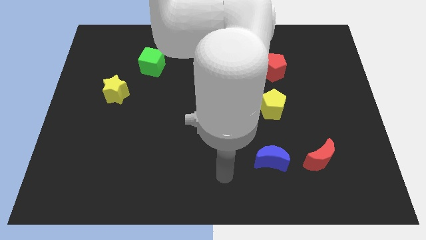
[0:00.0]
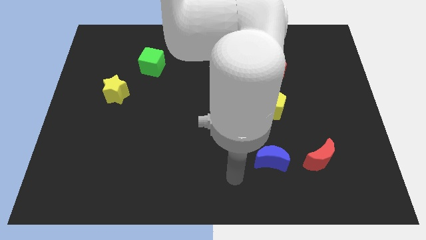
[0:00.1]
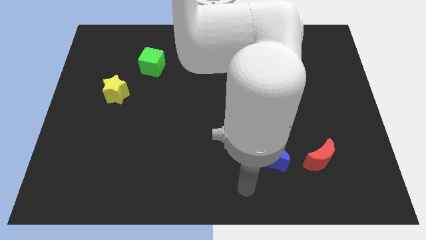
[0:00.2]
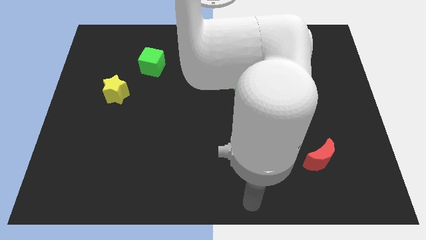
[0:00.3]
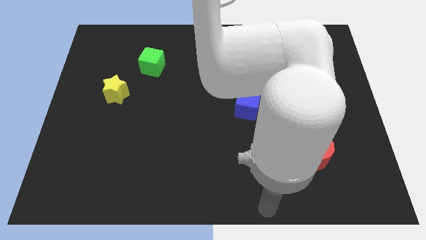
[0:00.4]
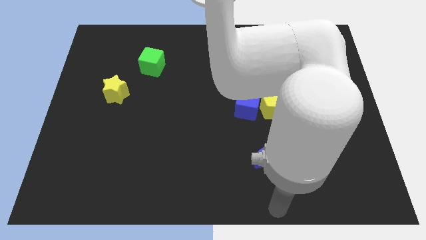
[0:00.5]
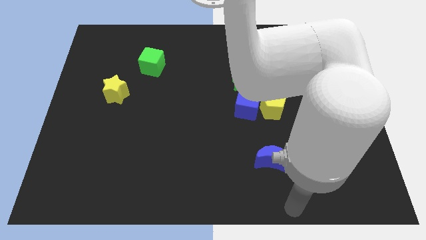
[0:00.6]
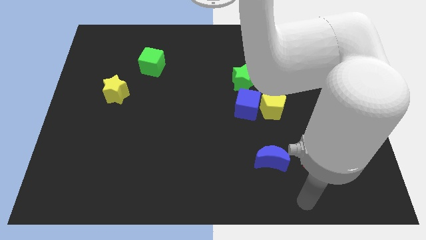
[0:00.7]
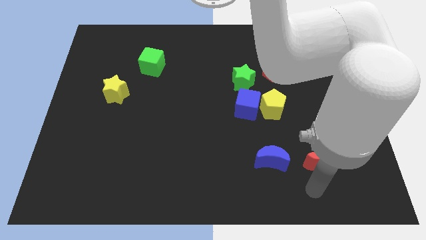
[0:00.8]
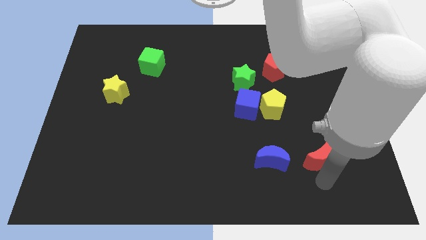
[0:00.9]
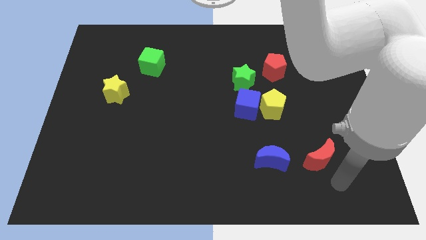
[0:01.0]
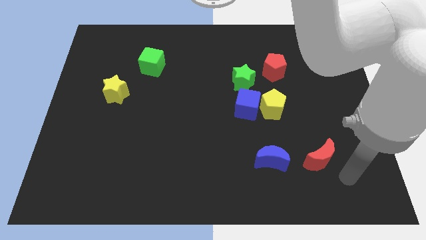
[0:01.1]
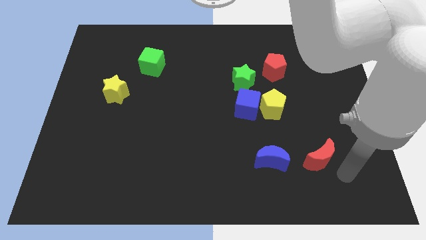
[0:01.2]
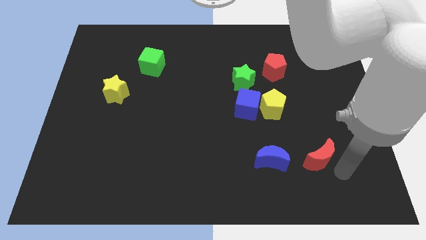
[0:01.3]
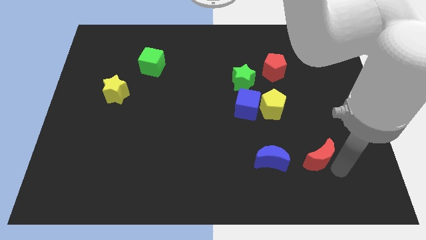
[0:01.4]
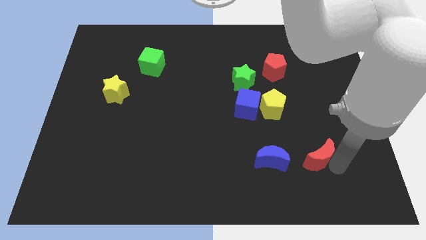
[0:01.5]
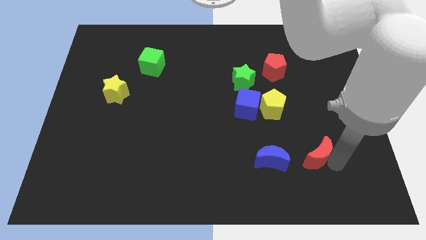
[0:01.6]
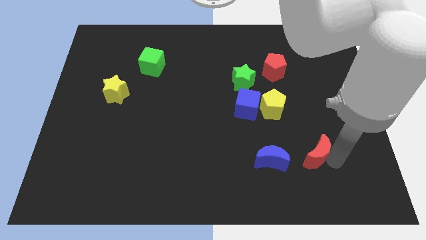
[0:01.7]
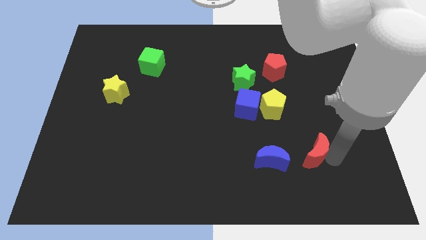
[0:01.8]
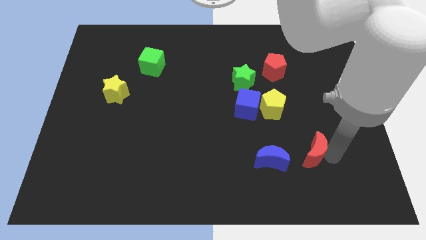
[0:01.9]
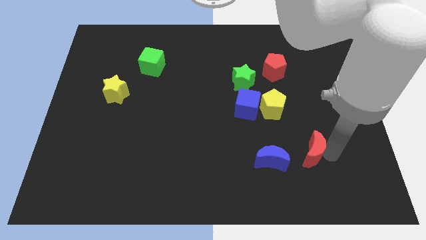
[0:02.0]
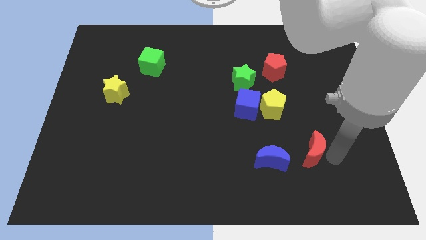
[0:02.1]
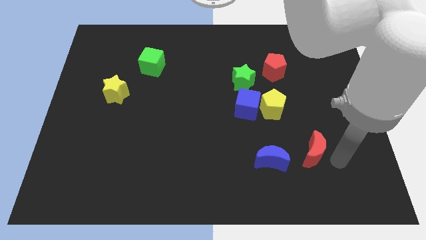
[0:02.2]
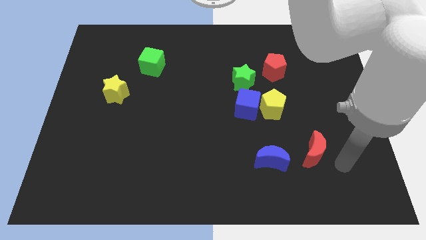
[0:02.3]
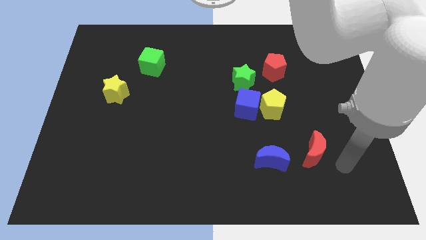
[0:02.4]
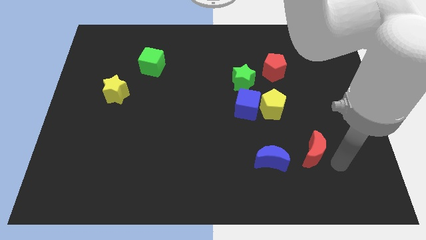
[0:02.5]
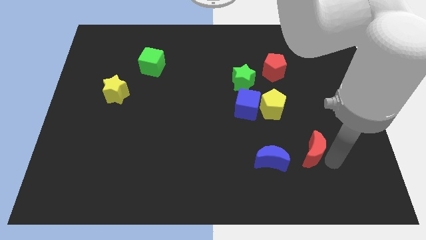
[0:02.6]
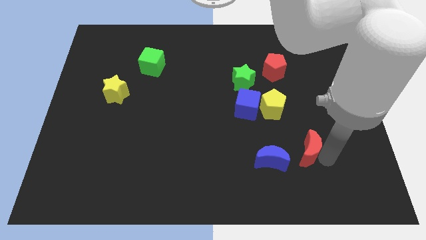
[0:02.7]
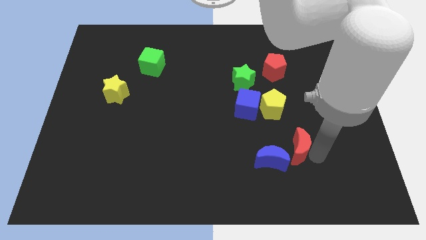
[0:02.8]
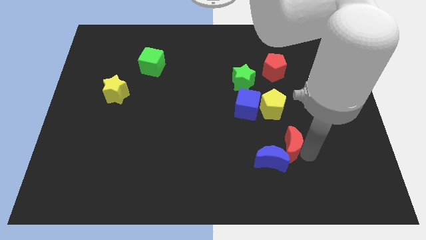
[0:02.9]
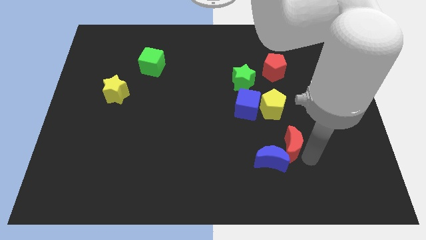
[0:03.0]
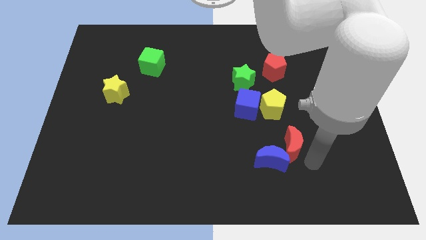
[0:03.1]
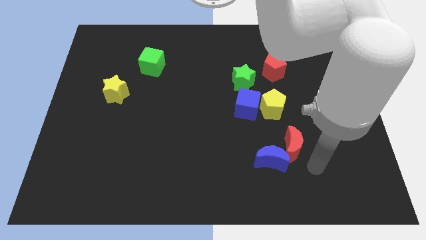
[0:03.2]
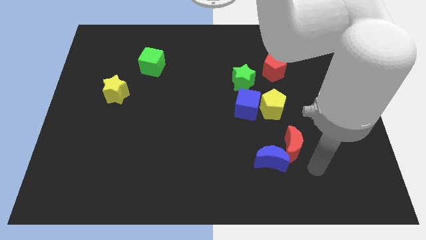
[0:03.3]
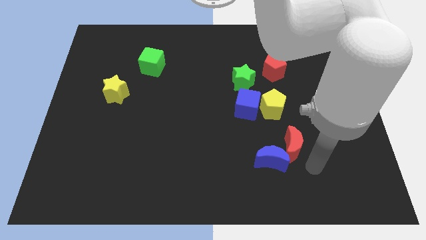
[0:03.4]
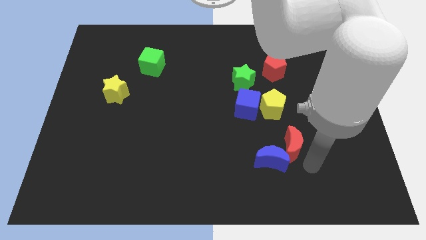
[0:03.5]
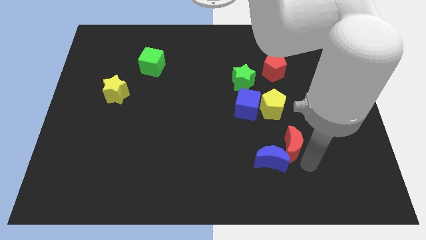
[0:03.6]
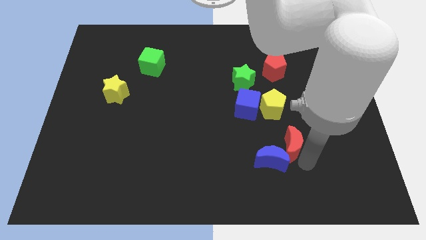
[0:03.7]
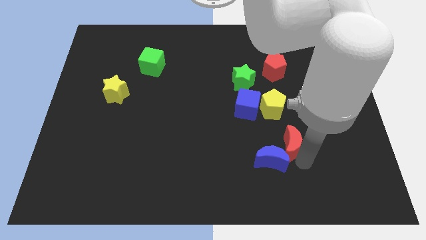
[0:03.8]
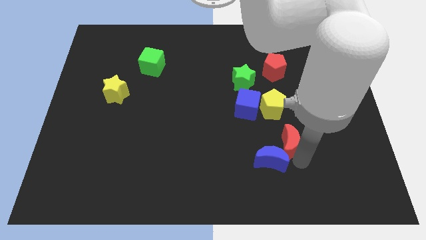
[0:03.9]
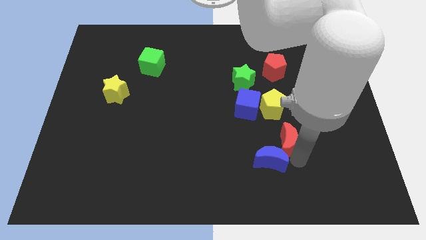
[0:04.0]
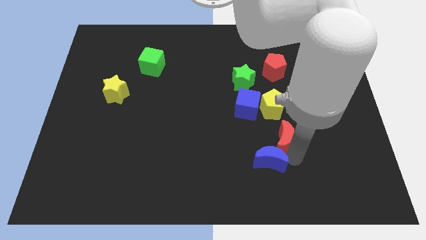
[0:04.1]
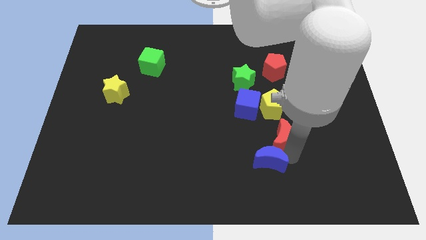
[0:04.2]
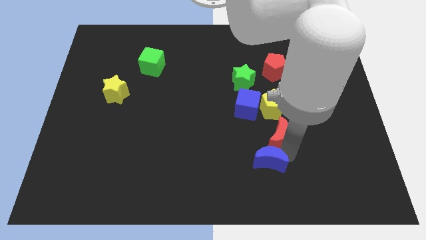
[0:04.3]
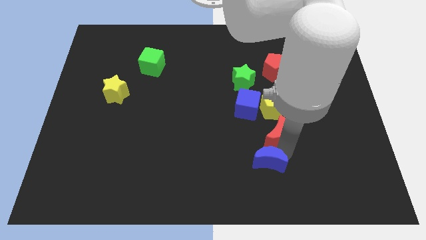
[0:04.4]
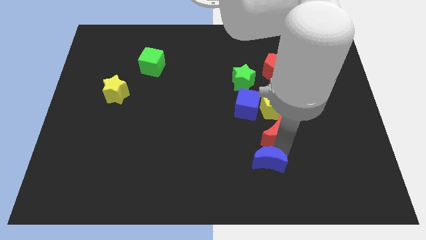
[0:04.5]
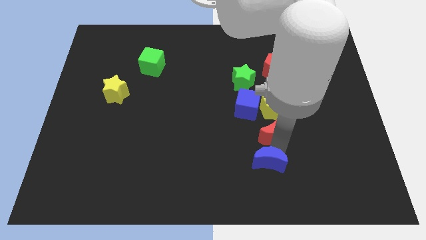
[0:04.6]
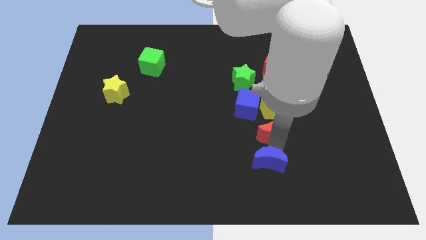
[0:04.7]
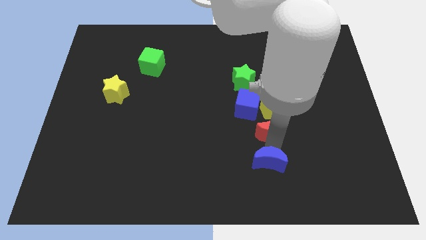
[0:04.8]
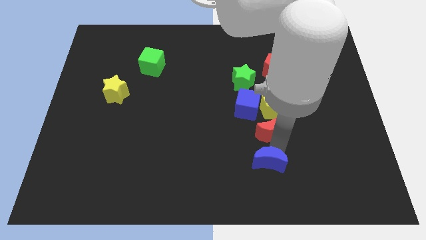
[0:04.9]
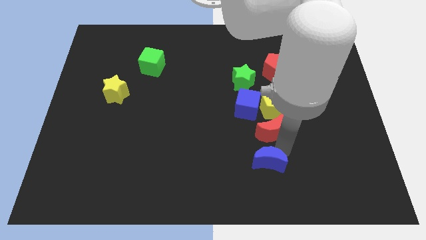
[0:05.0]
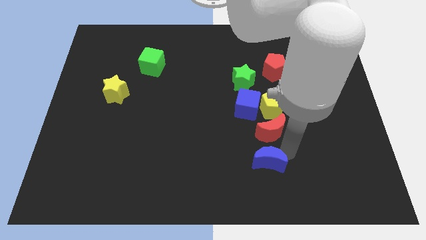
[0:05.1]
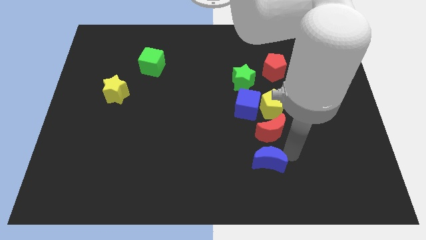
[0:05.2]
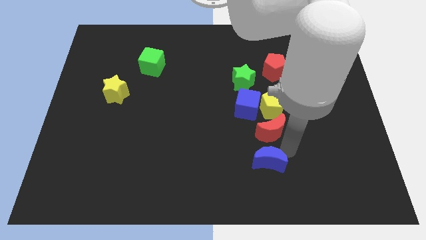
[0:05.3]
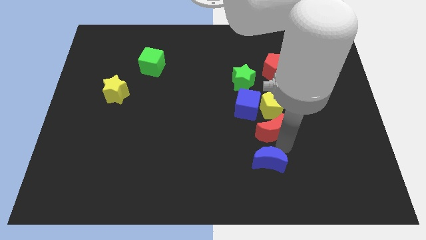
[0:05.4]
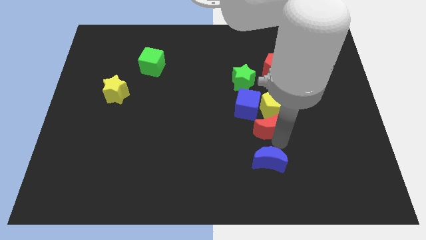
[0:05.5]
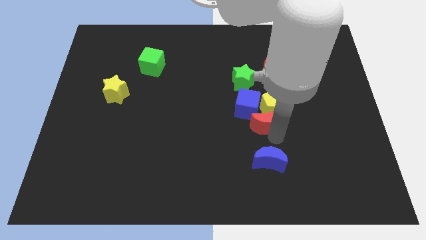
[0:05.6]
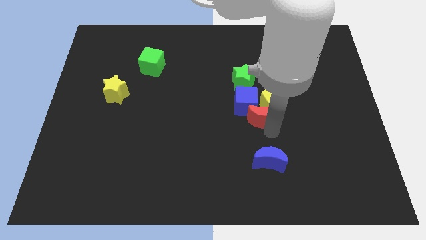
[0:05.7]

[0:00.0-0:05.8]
push the red moon close to the blue cube

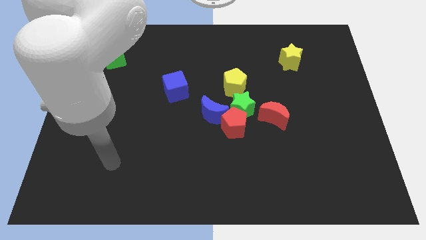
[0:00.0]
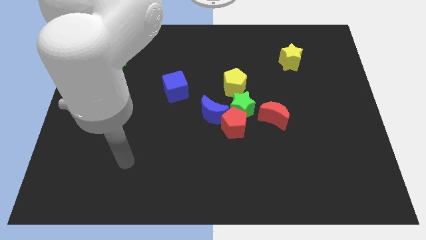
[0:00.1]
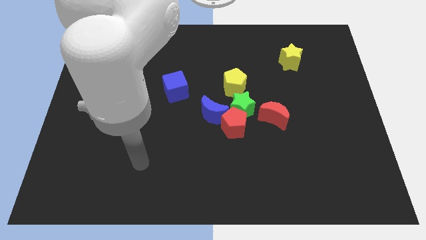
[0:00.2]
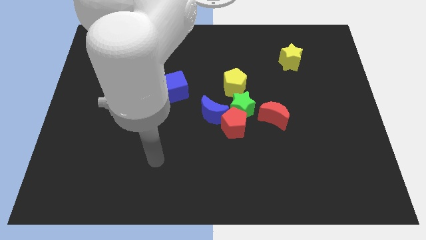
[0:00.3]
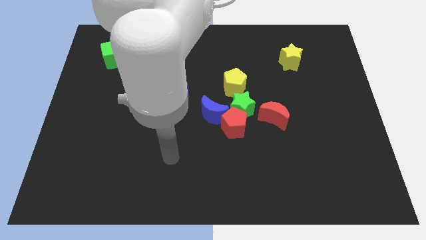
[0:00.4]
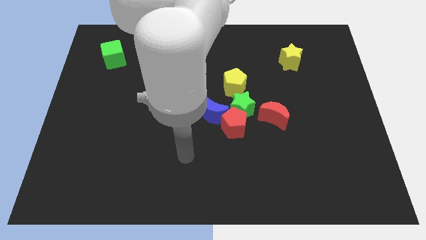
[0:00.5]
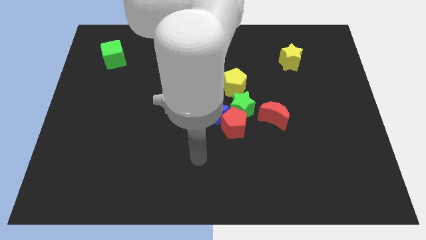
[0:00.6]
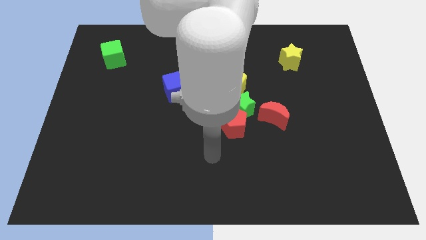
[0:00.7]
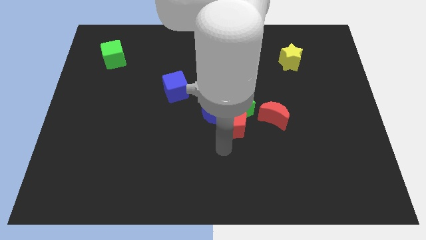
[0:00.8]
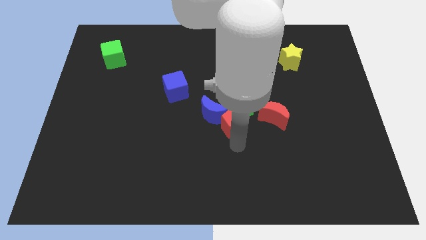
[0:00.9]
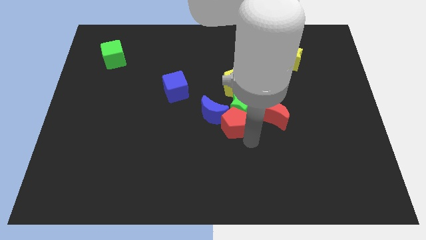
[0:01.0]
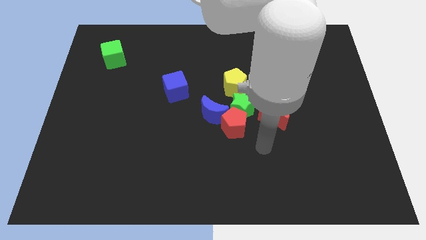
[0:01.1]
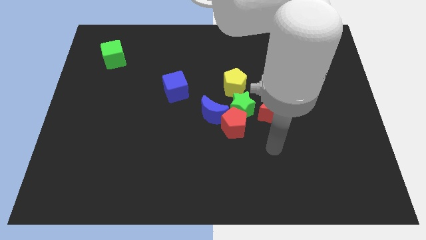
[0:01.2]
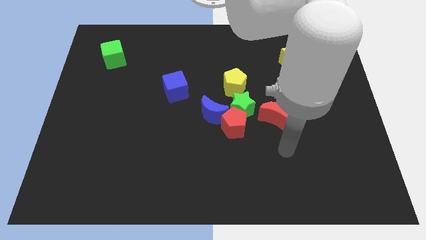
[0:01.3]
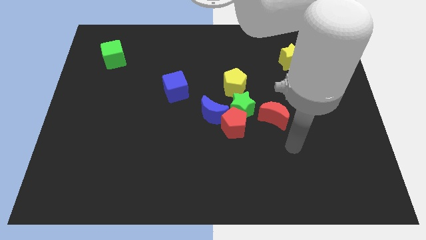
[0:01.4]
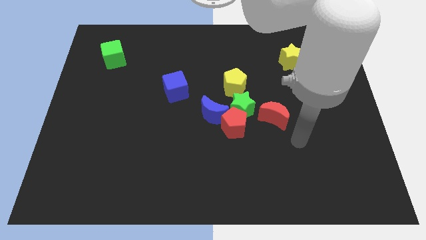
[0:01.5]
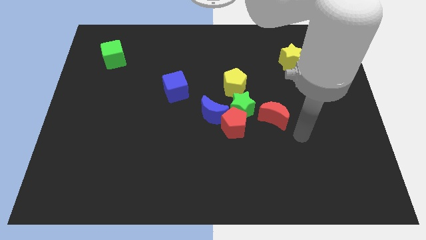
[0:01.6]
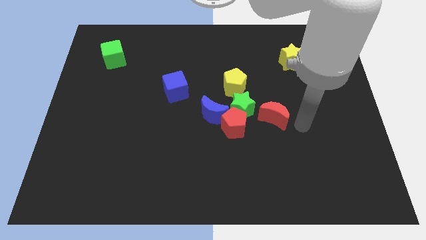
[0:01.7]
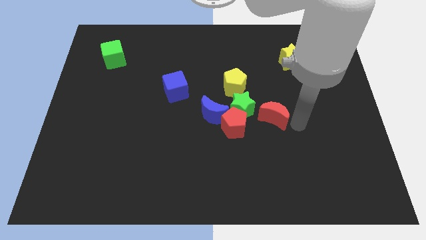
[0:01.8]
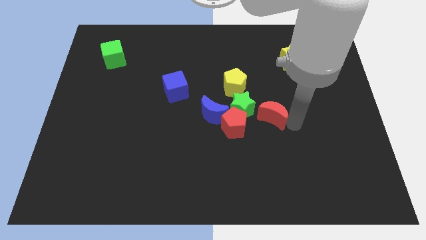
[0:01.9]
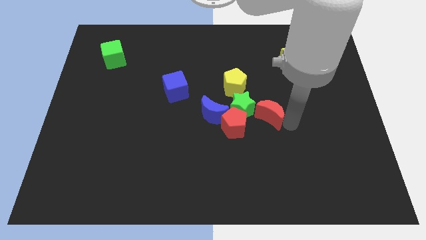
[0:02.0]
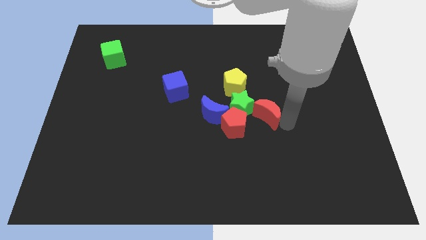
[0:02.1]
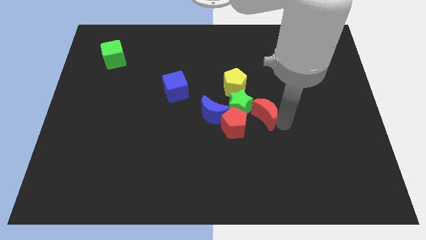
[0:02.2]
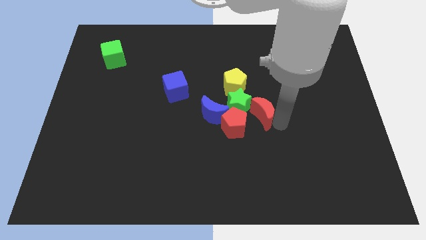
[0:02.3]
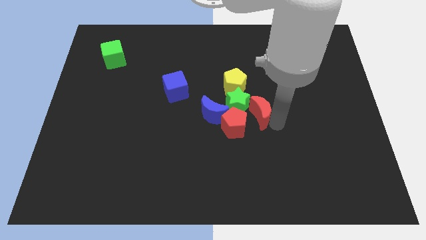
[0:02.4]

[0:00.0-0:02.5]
push the red moon close to the green star
